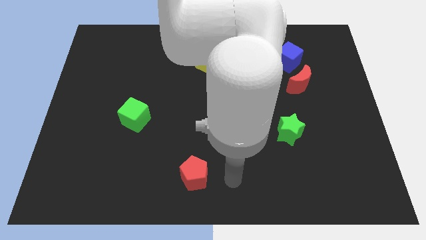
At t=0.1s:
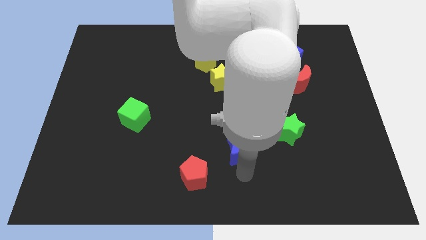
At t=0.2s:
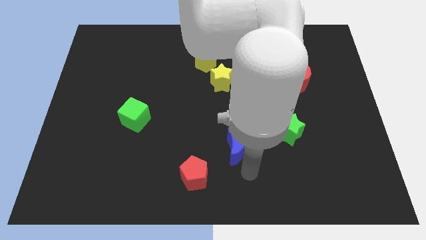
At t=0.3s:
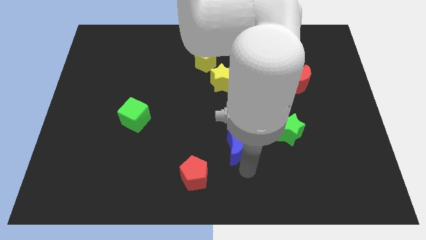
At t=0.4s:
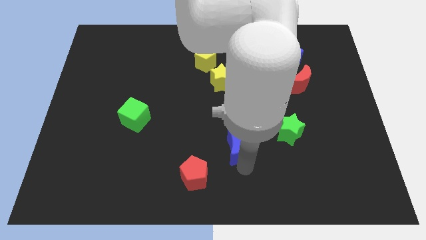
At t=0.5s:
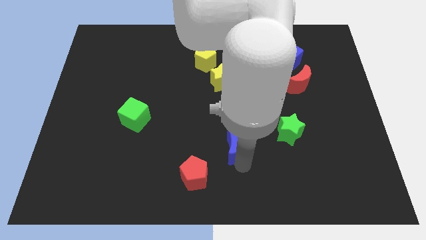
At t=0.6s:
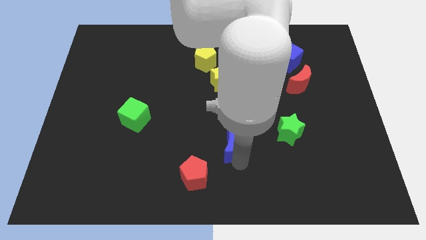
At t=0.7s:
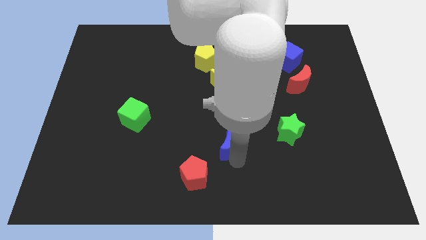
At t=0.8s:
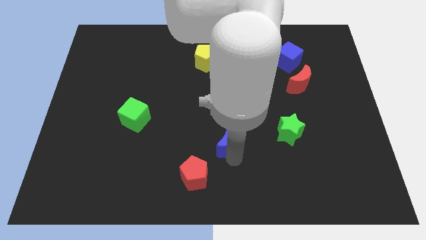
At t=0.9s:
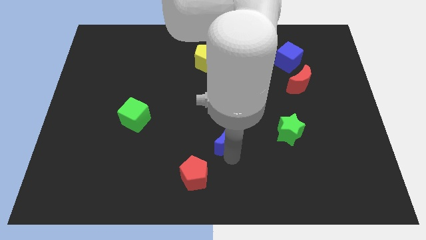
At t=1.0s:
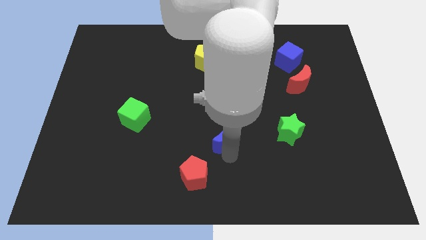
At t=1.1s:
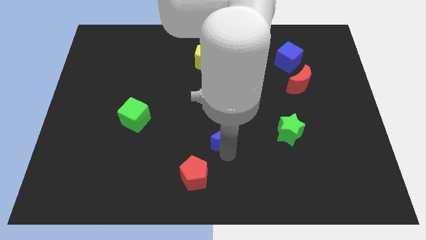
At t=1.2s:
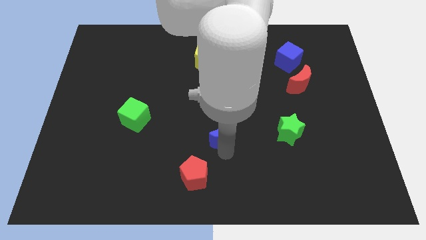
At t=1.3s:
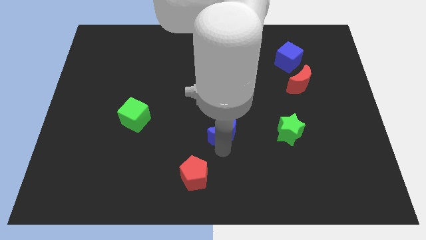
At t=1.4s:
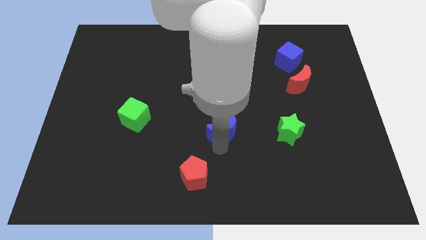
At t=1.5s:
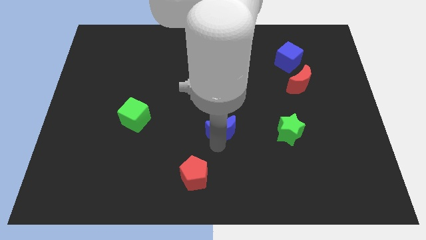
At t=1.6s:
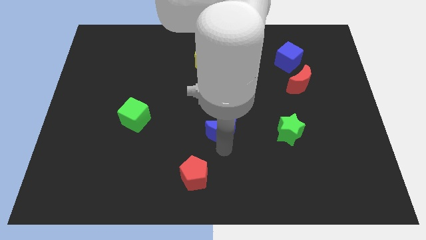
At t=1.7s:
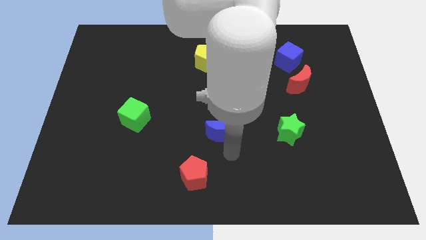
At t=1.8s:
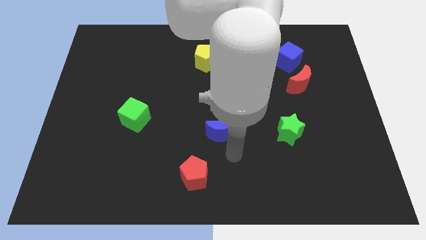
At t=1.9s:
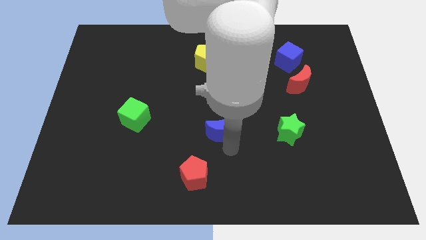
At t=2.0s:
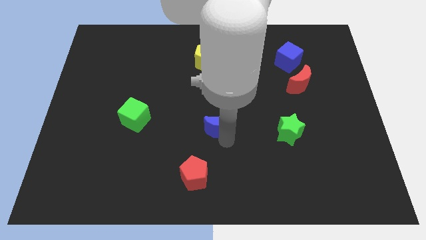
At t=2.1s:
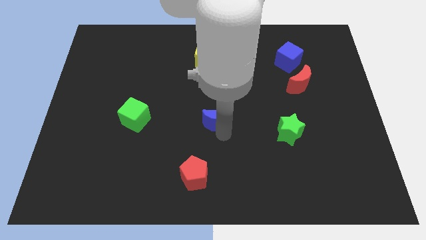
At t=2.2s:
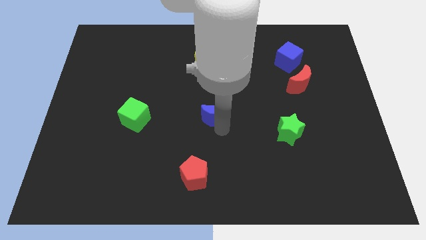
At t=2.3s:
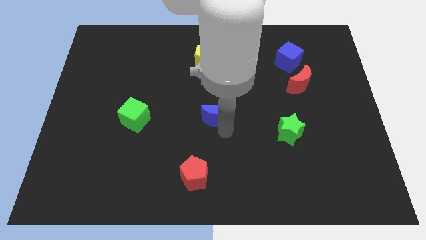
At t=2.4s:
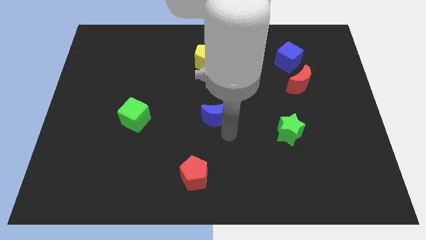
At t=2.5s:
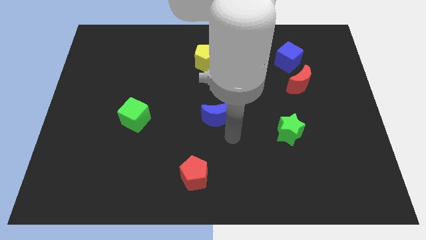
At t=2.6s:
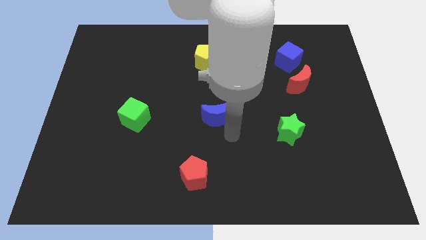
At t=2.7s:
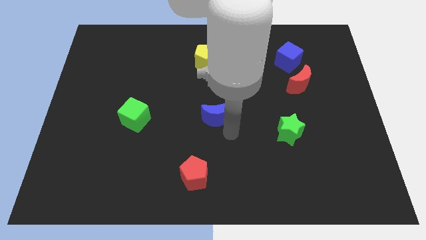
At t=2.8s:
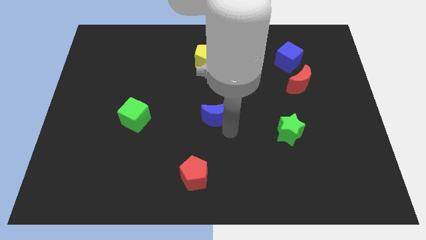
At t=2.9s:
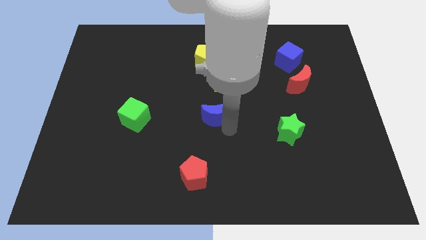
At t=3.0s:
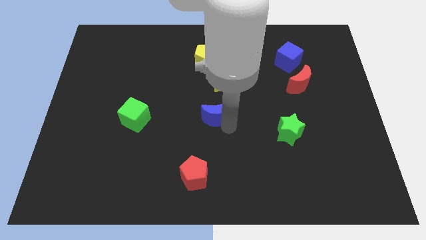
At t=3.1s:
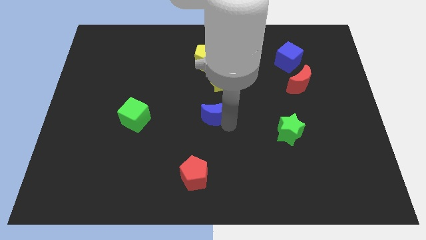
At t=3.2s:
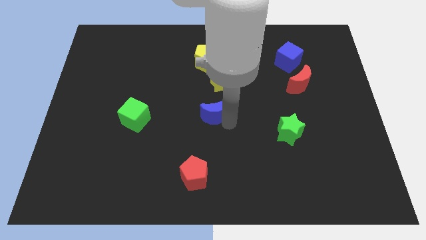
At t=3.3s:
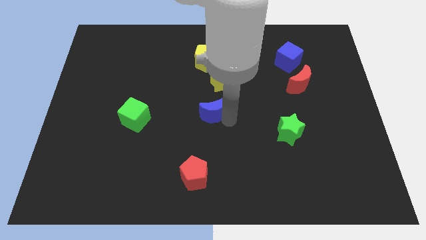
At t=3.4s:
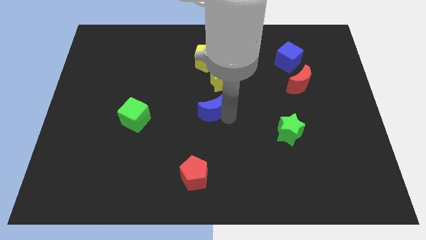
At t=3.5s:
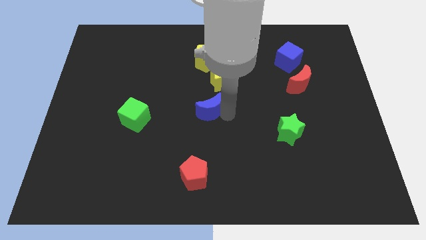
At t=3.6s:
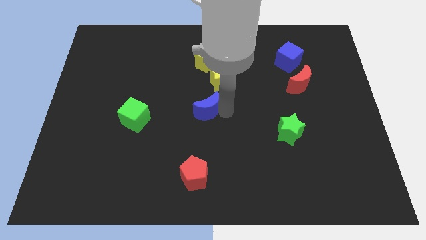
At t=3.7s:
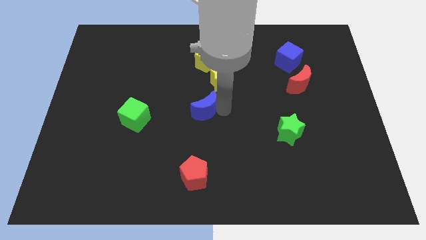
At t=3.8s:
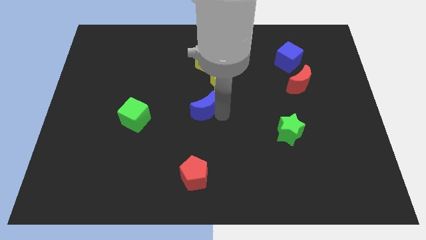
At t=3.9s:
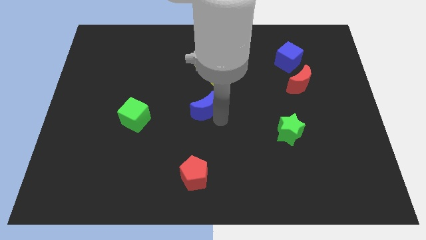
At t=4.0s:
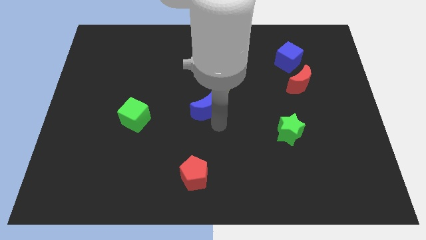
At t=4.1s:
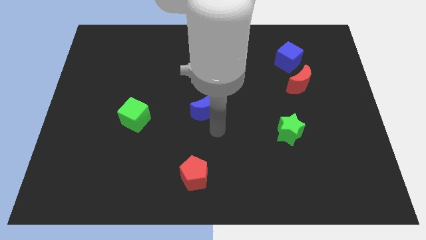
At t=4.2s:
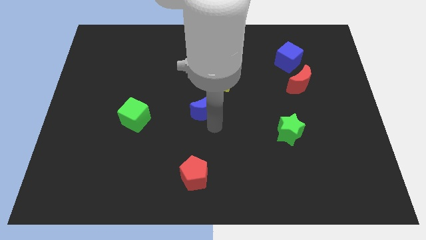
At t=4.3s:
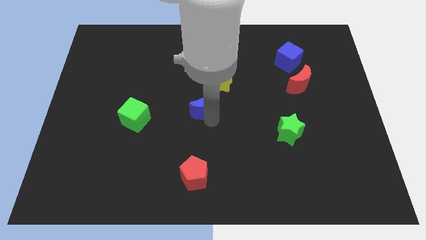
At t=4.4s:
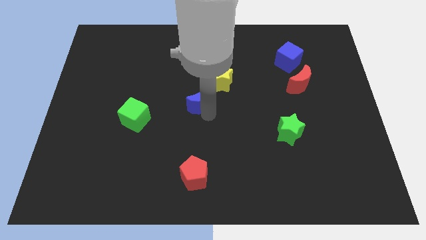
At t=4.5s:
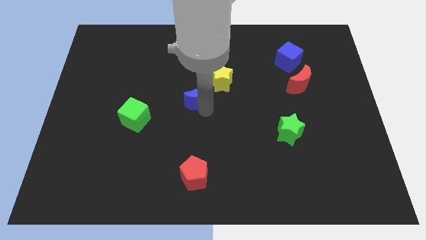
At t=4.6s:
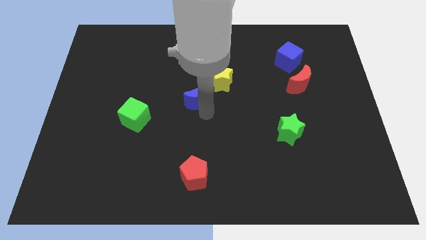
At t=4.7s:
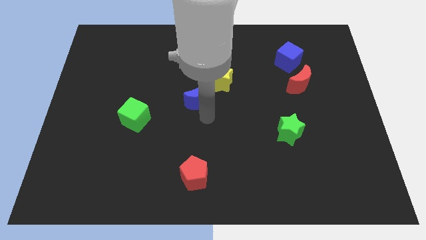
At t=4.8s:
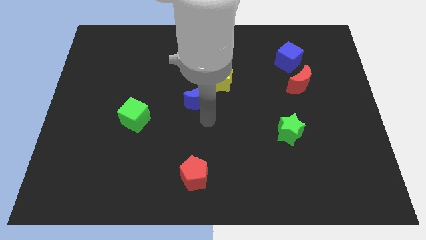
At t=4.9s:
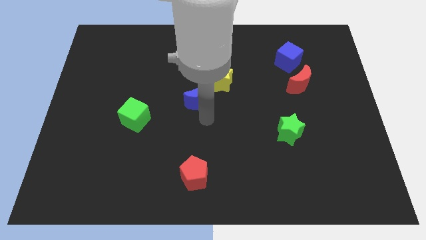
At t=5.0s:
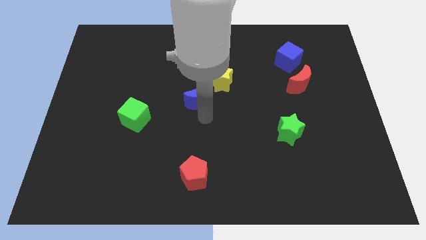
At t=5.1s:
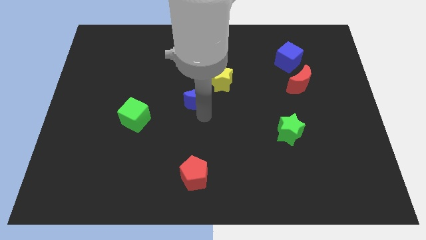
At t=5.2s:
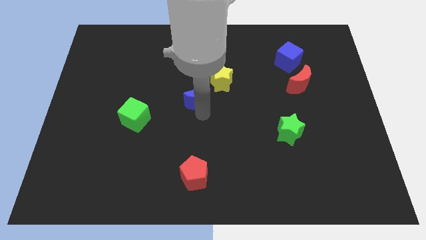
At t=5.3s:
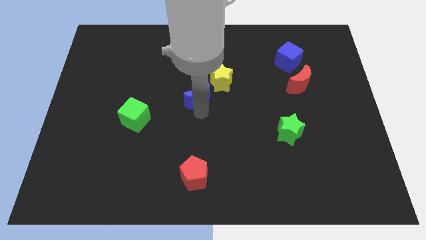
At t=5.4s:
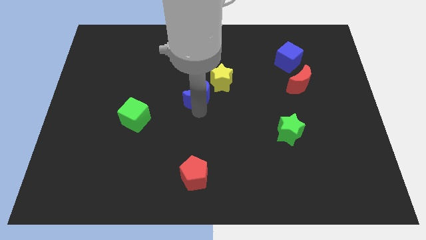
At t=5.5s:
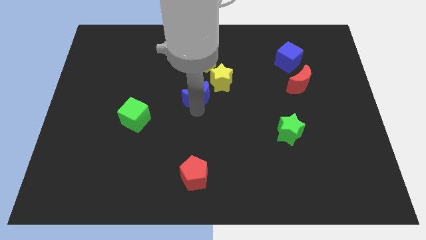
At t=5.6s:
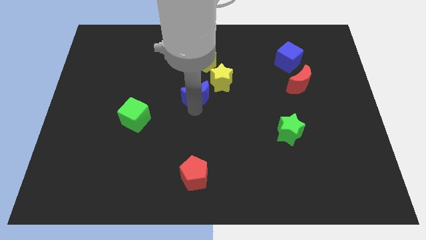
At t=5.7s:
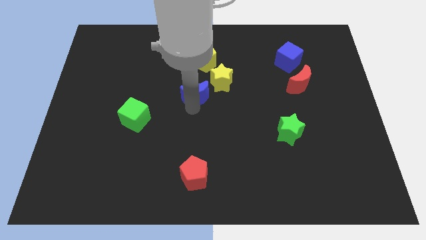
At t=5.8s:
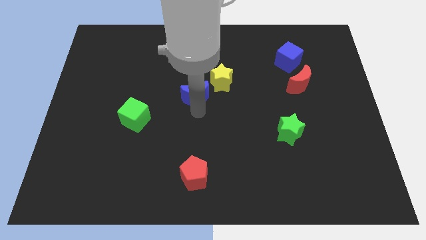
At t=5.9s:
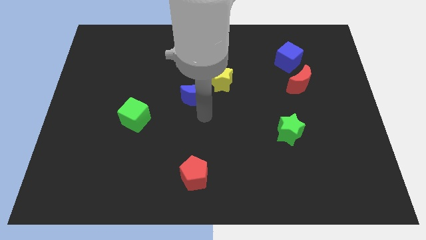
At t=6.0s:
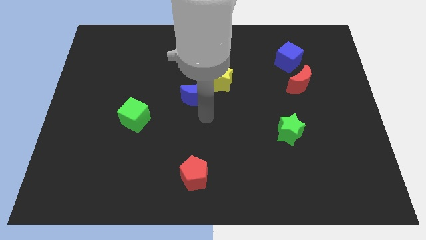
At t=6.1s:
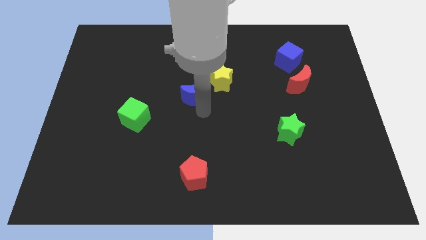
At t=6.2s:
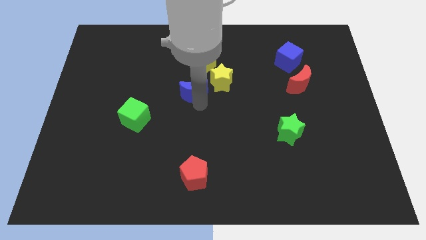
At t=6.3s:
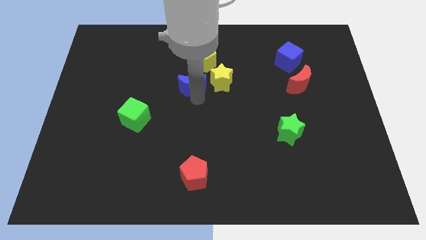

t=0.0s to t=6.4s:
move the blue moon diagonally down and to the left of the yellow pentagon
